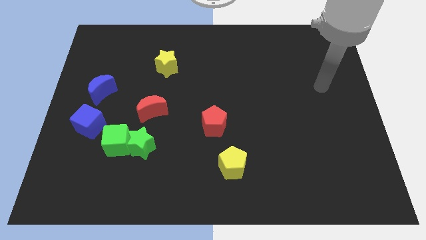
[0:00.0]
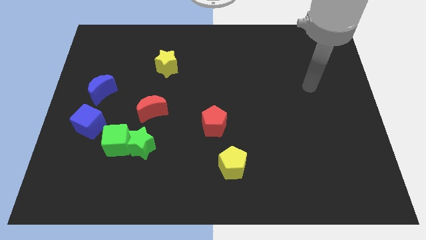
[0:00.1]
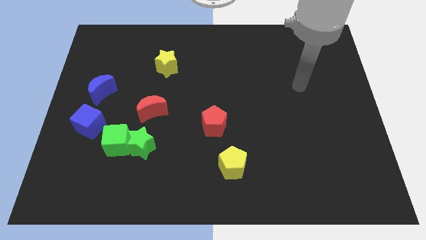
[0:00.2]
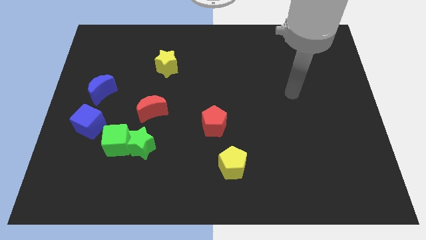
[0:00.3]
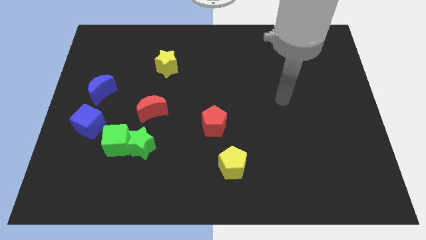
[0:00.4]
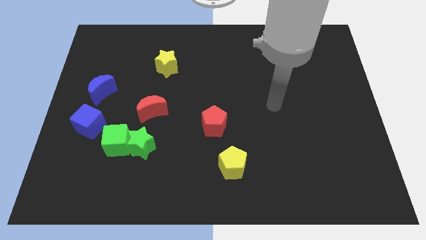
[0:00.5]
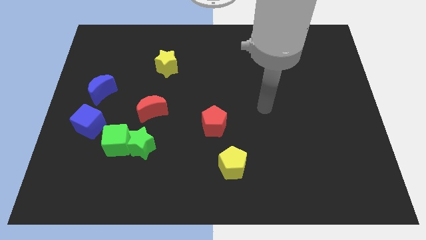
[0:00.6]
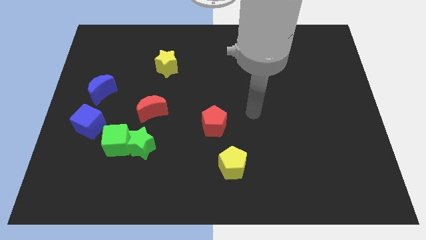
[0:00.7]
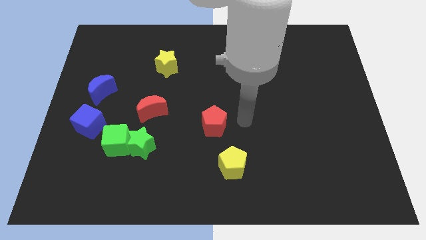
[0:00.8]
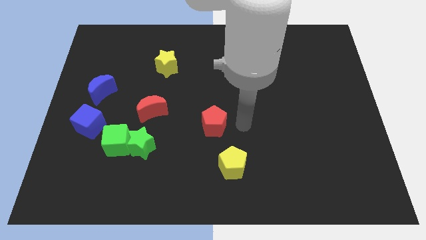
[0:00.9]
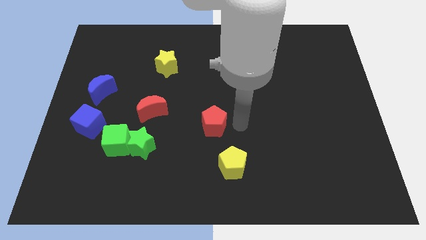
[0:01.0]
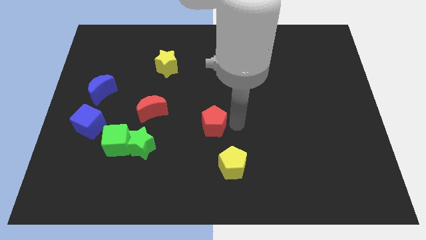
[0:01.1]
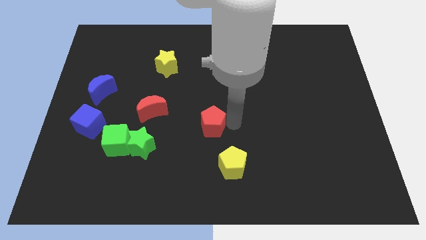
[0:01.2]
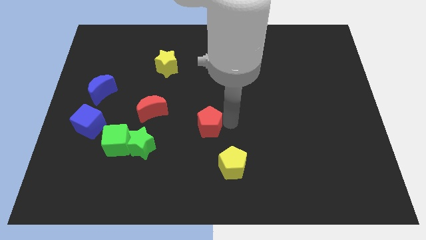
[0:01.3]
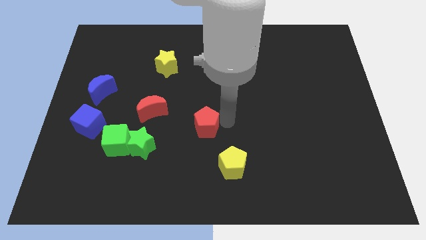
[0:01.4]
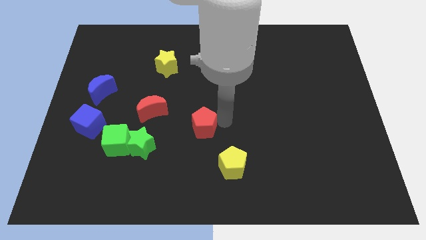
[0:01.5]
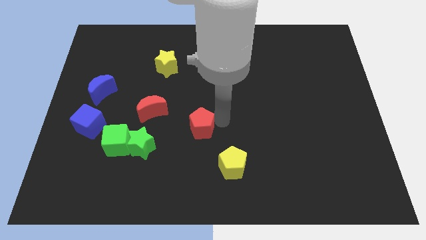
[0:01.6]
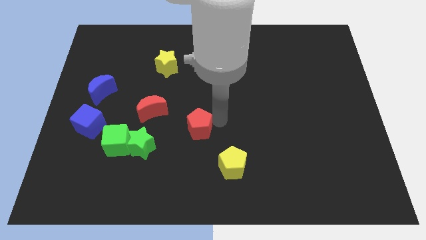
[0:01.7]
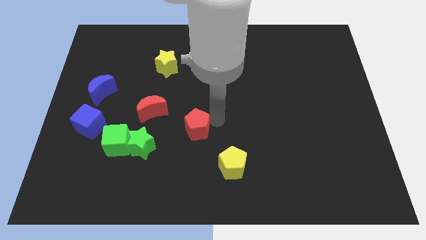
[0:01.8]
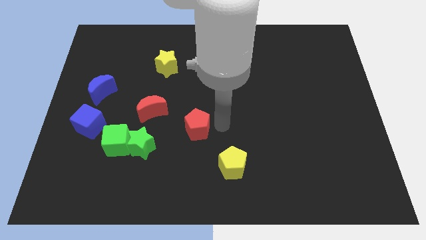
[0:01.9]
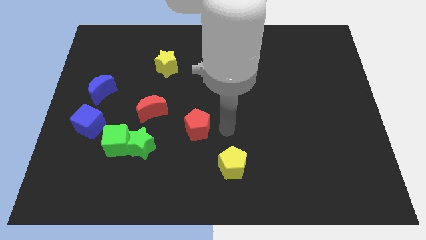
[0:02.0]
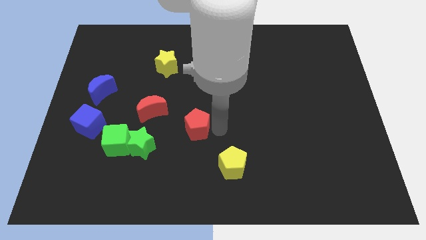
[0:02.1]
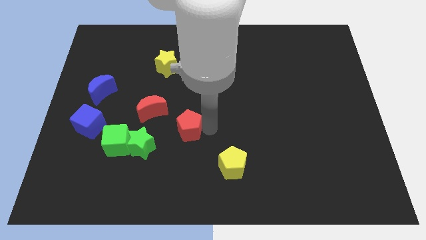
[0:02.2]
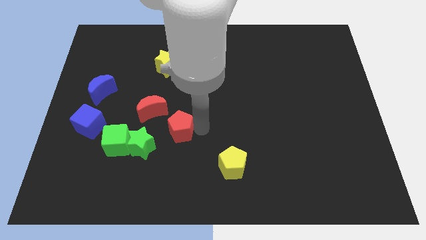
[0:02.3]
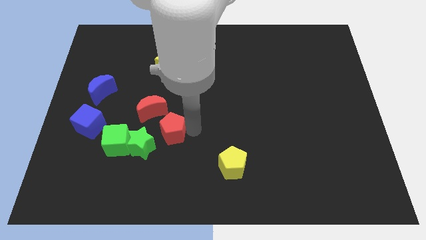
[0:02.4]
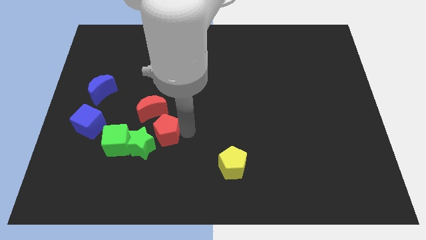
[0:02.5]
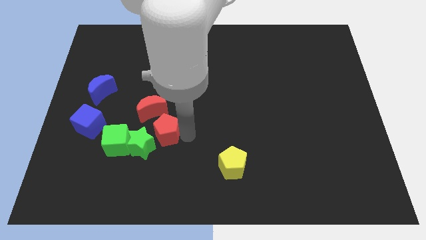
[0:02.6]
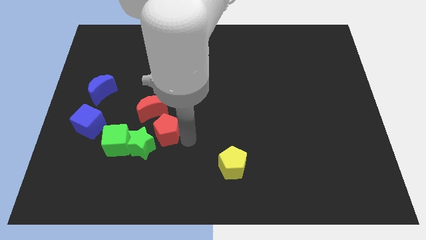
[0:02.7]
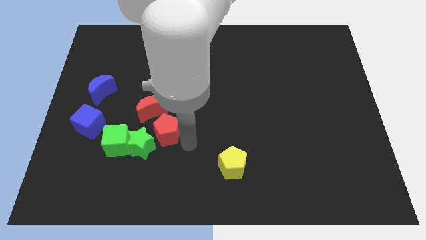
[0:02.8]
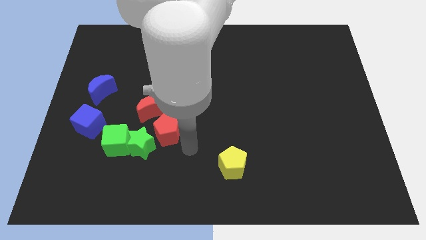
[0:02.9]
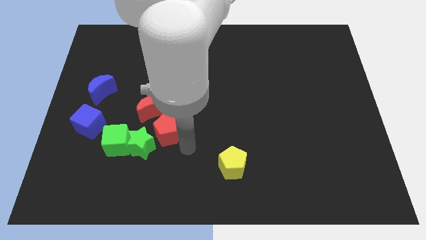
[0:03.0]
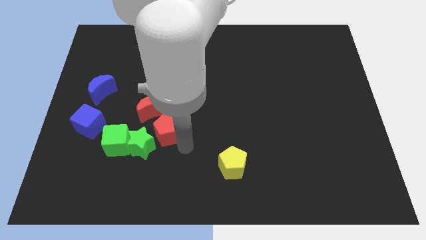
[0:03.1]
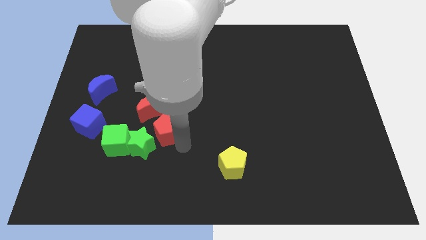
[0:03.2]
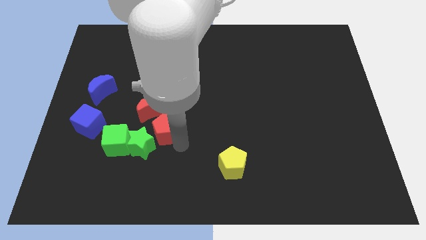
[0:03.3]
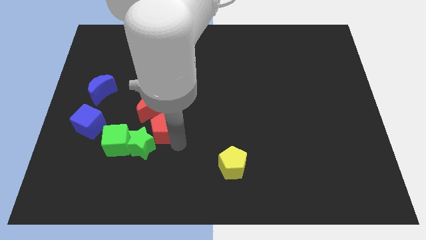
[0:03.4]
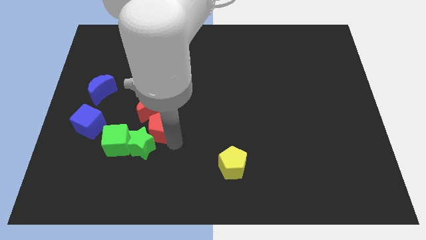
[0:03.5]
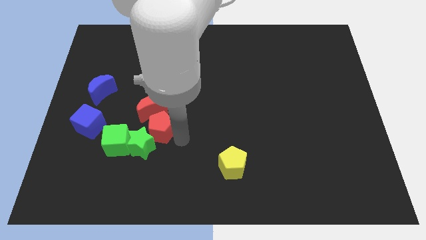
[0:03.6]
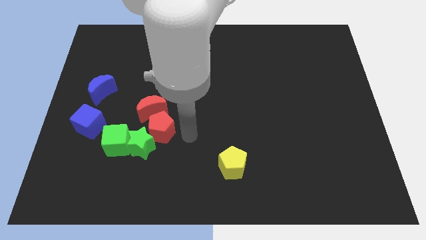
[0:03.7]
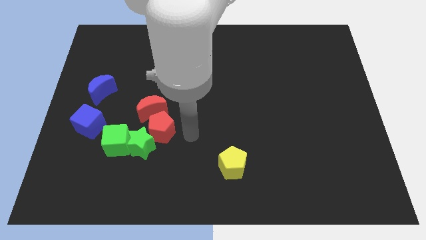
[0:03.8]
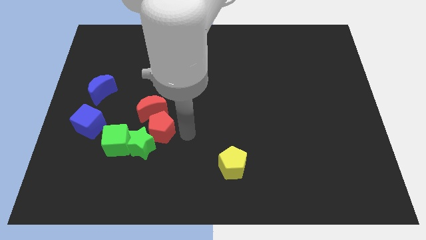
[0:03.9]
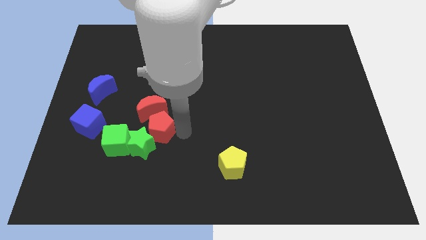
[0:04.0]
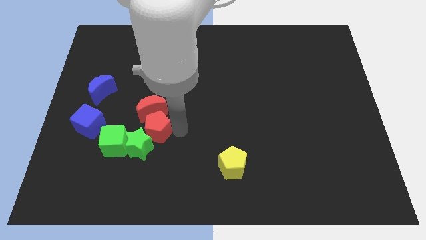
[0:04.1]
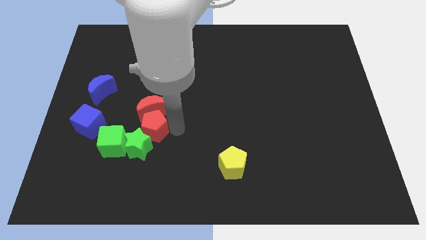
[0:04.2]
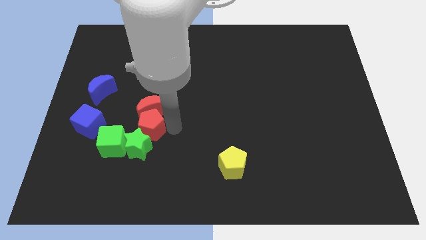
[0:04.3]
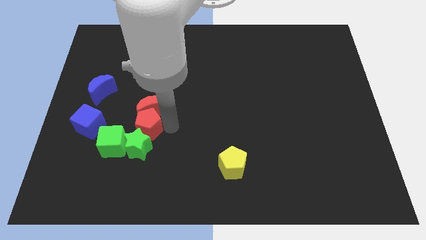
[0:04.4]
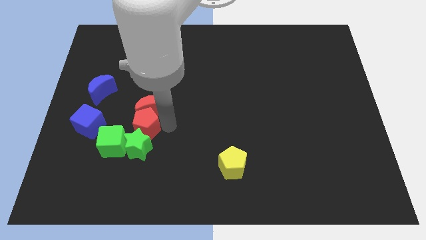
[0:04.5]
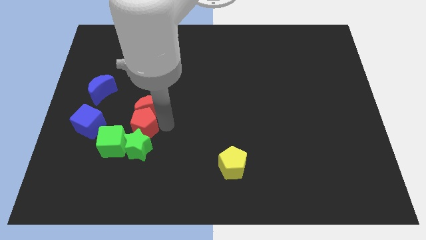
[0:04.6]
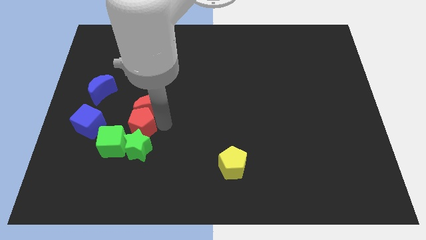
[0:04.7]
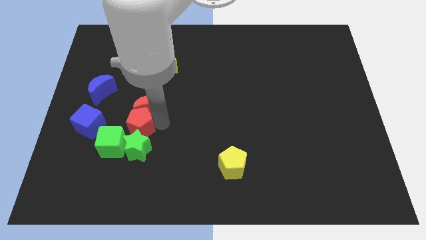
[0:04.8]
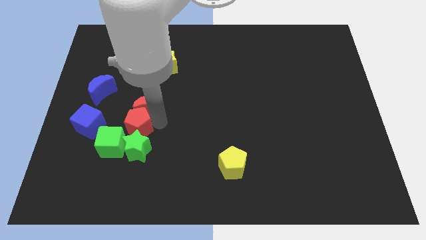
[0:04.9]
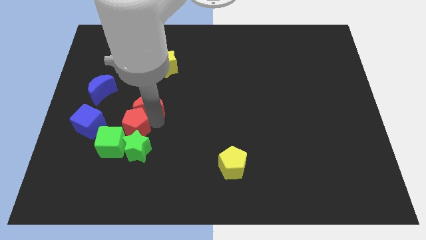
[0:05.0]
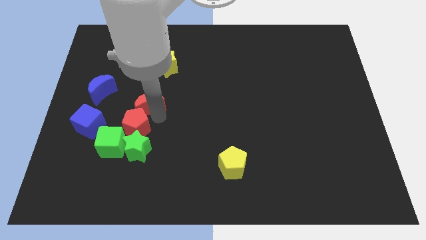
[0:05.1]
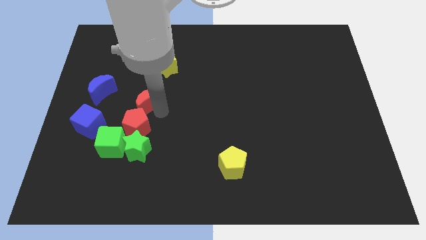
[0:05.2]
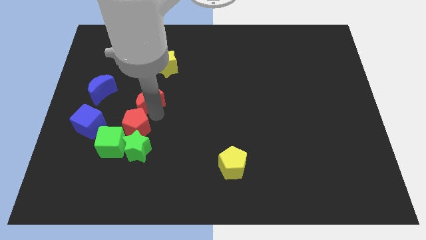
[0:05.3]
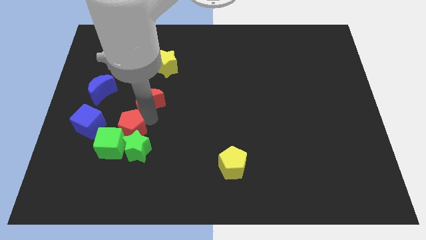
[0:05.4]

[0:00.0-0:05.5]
put the red pentagon towards the green cube

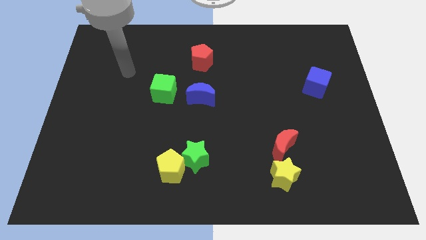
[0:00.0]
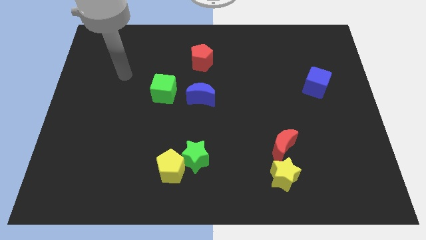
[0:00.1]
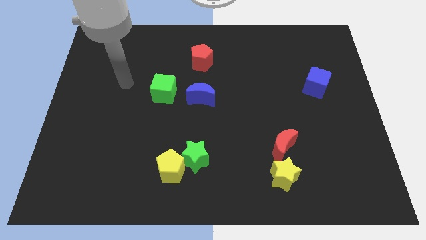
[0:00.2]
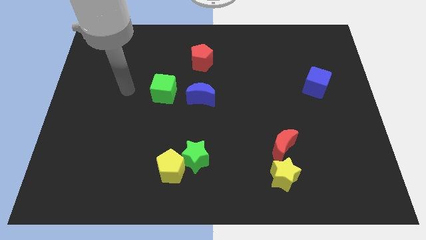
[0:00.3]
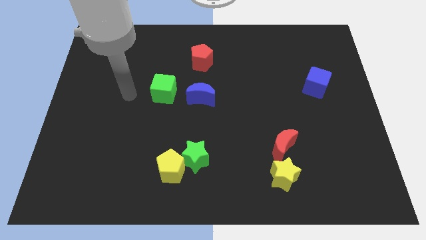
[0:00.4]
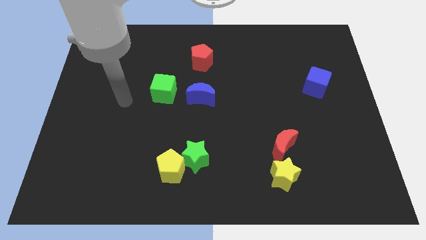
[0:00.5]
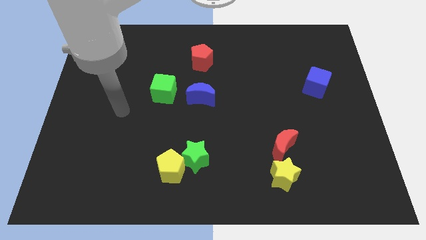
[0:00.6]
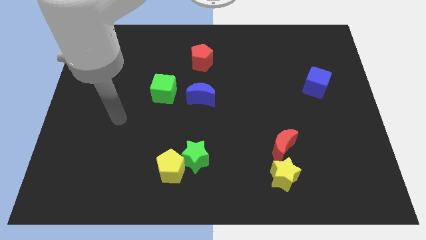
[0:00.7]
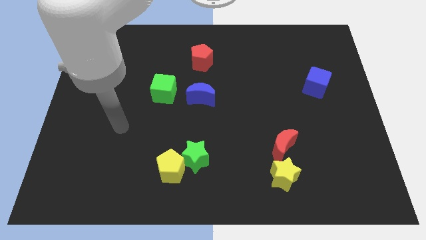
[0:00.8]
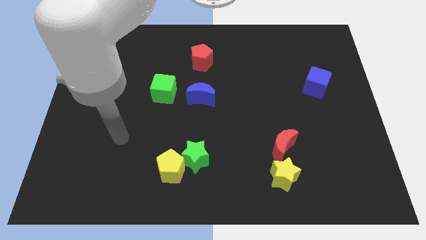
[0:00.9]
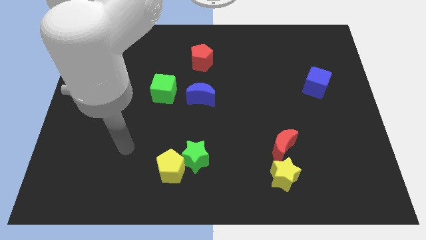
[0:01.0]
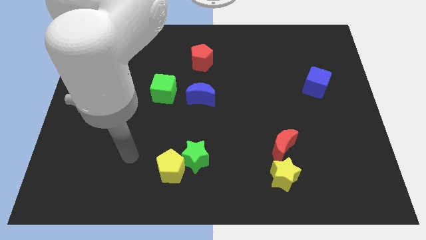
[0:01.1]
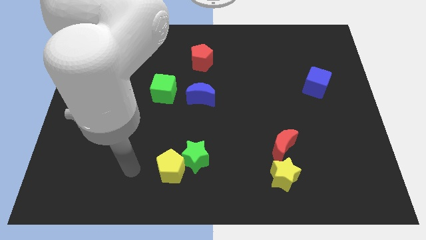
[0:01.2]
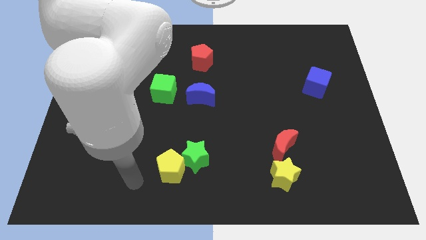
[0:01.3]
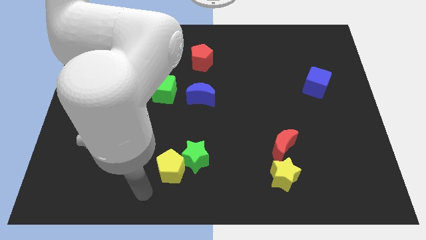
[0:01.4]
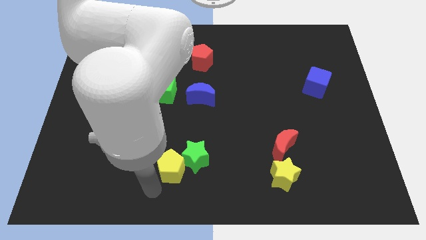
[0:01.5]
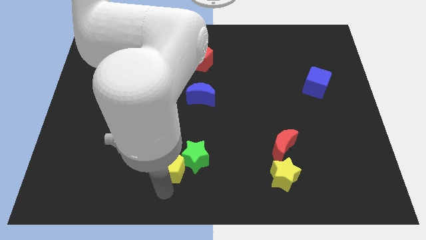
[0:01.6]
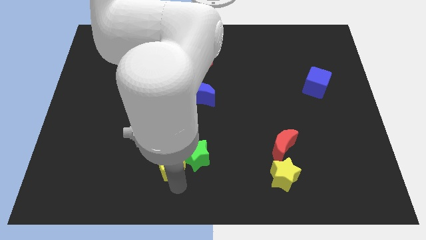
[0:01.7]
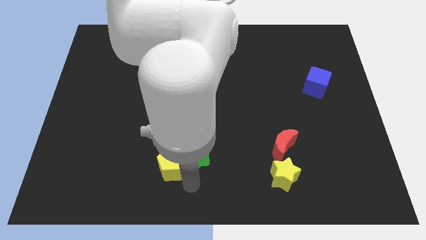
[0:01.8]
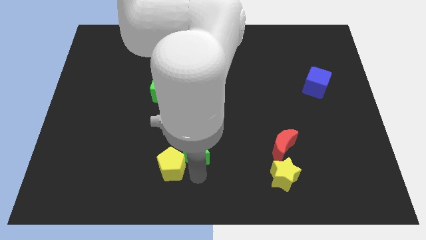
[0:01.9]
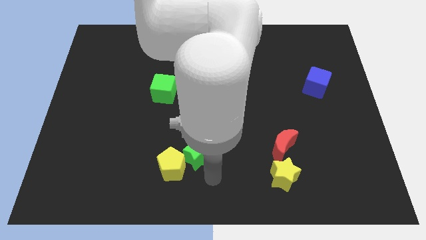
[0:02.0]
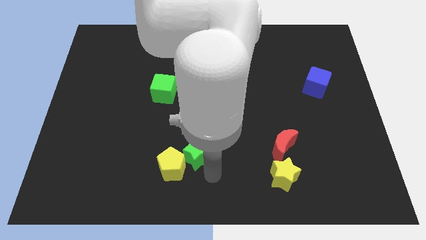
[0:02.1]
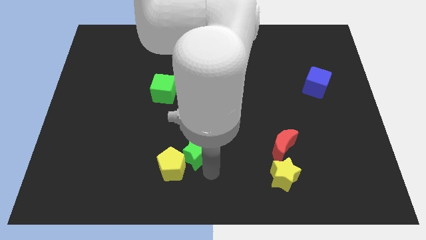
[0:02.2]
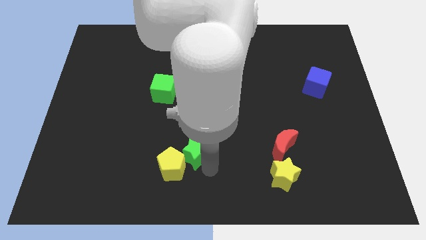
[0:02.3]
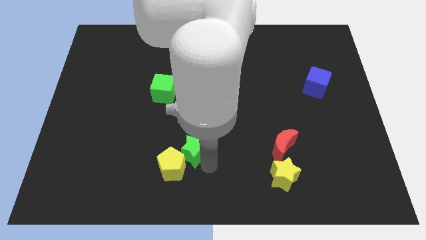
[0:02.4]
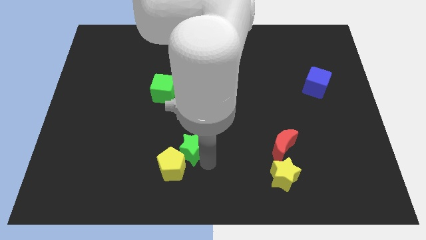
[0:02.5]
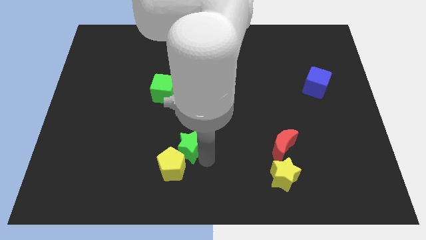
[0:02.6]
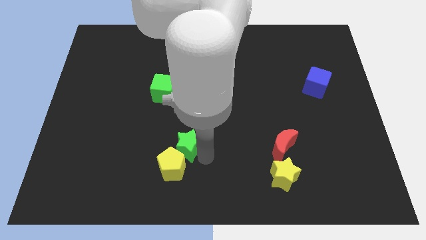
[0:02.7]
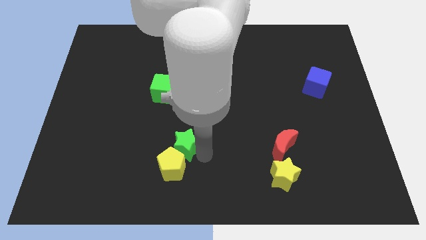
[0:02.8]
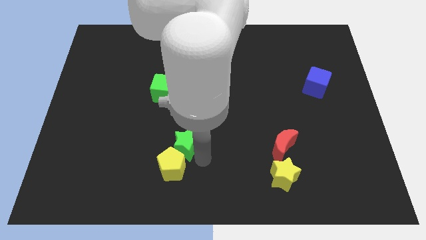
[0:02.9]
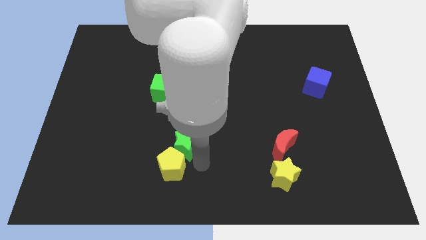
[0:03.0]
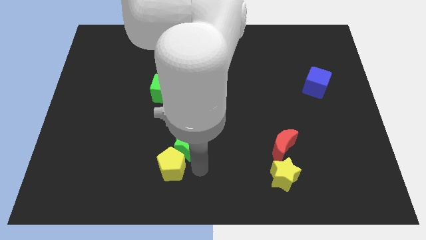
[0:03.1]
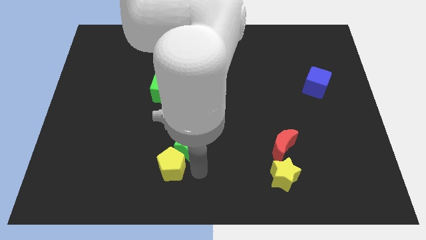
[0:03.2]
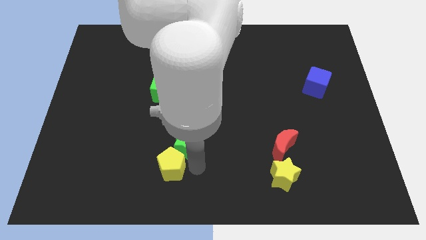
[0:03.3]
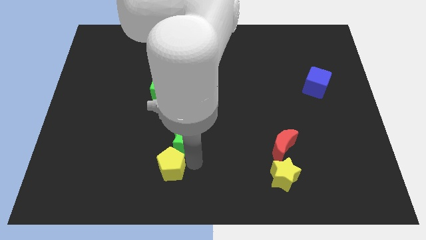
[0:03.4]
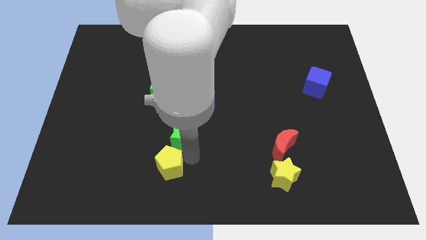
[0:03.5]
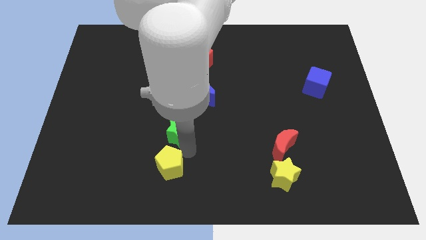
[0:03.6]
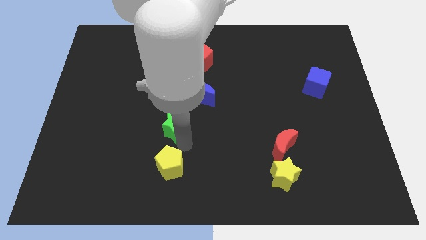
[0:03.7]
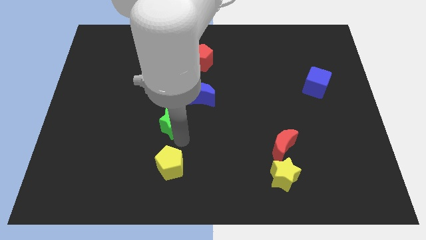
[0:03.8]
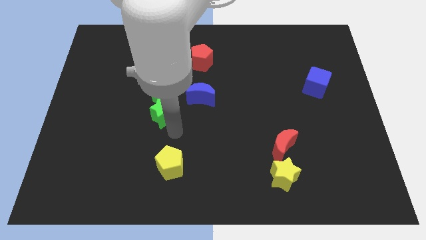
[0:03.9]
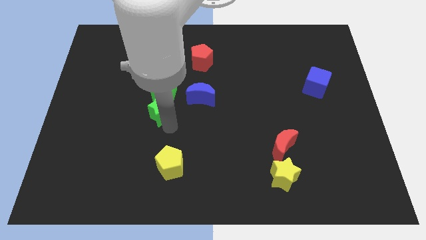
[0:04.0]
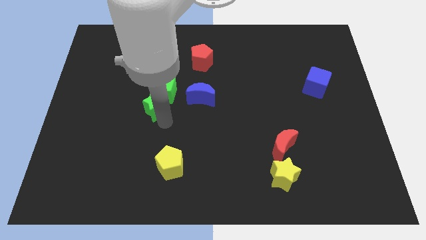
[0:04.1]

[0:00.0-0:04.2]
push the green star close to the green cube
